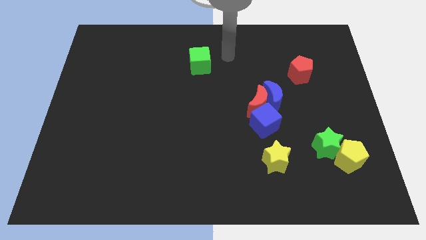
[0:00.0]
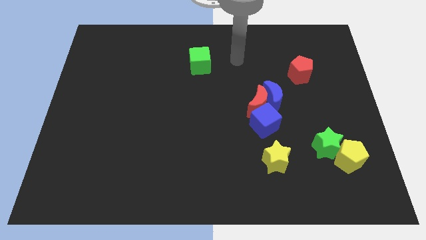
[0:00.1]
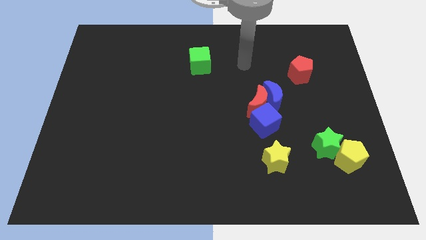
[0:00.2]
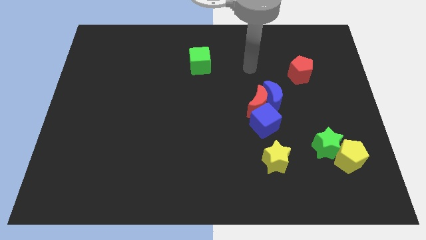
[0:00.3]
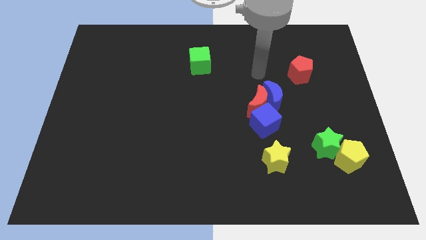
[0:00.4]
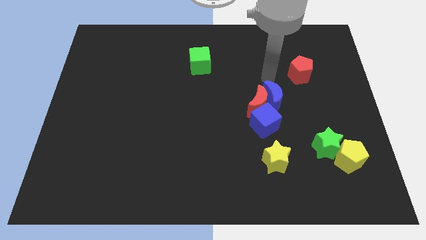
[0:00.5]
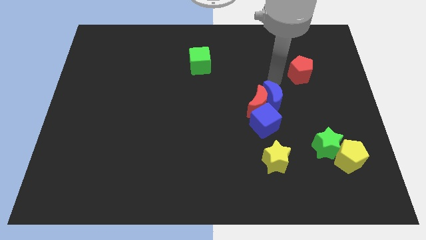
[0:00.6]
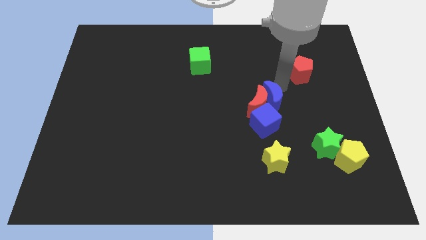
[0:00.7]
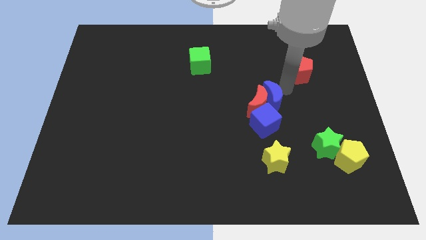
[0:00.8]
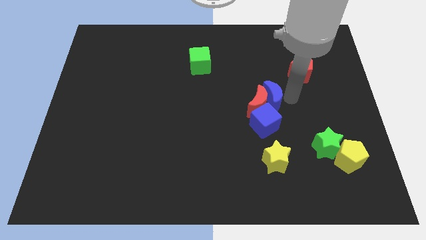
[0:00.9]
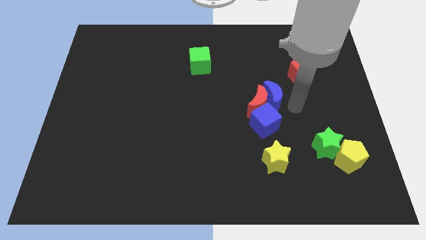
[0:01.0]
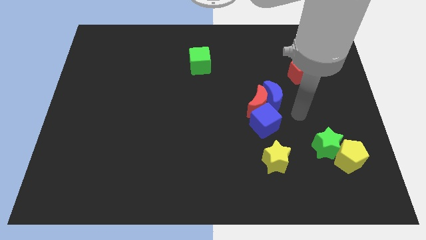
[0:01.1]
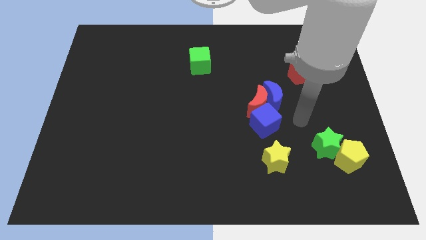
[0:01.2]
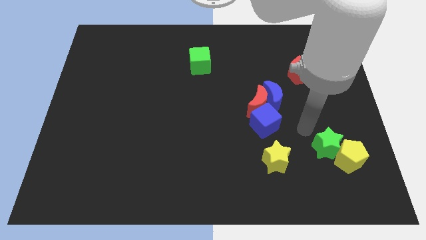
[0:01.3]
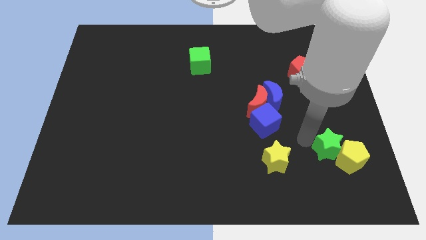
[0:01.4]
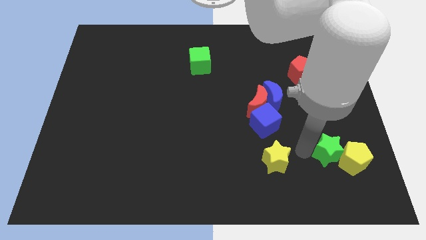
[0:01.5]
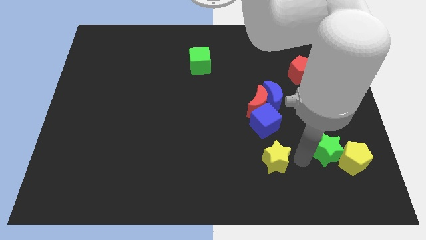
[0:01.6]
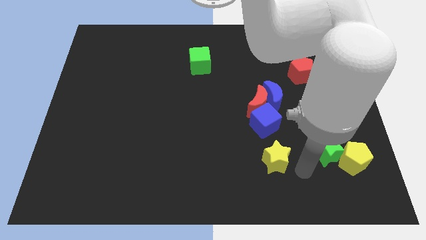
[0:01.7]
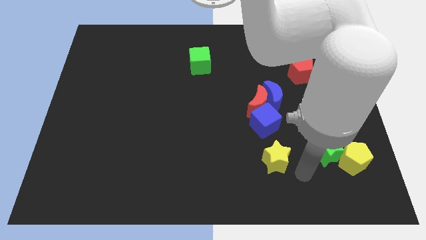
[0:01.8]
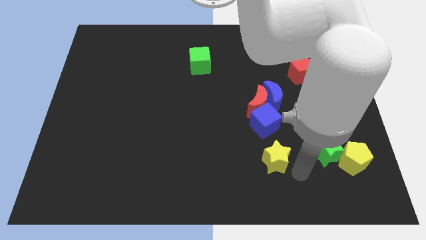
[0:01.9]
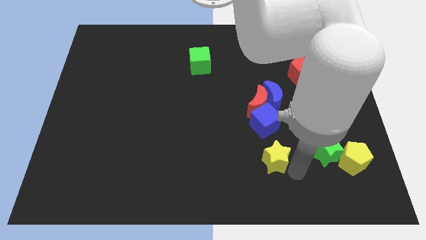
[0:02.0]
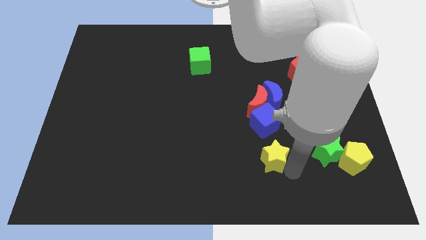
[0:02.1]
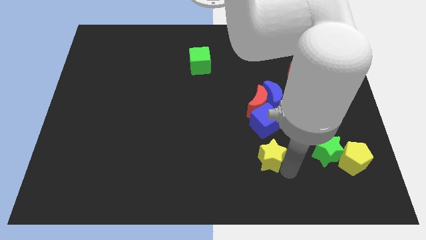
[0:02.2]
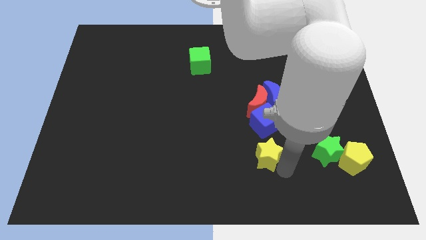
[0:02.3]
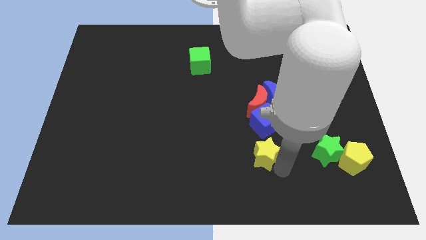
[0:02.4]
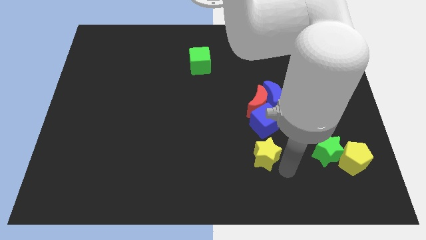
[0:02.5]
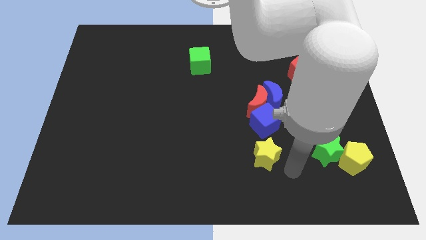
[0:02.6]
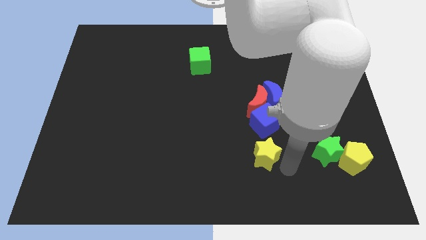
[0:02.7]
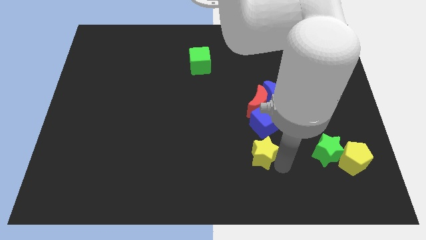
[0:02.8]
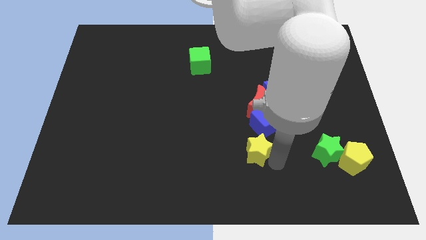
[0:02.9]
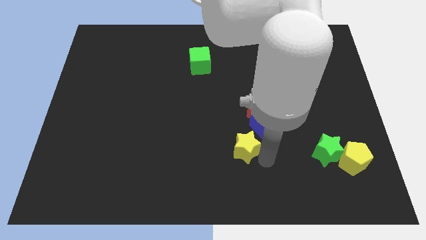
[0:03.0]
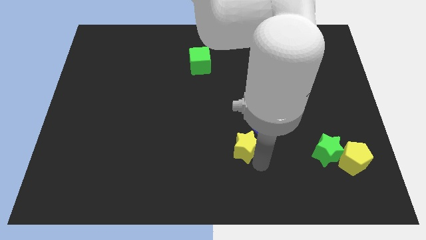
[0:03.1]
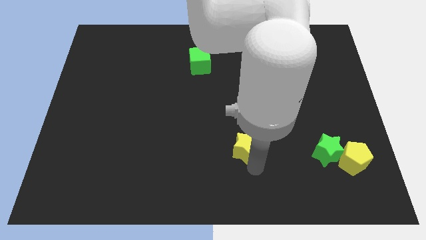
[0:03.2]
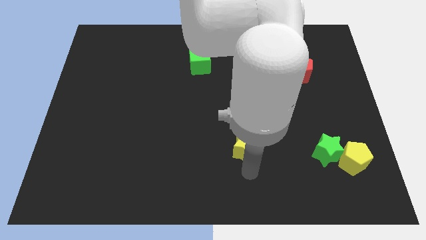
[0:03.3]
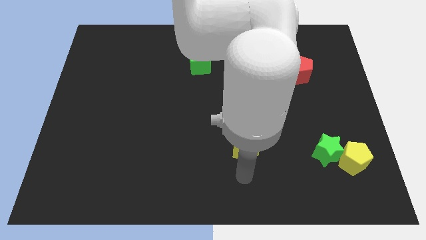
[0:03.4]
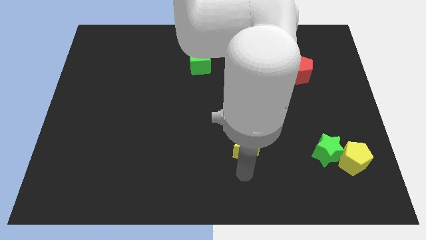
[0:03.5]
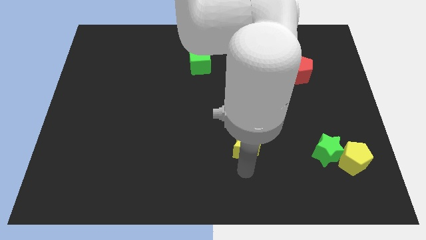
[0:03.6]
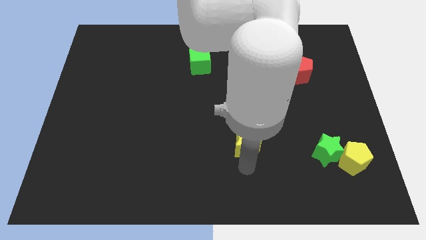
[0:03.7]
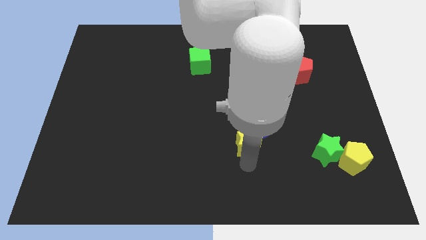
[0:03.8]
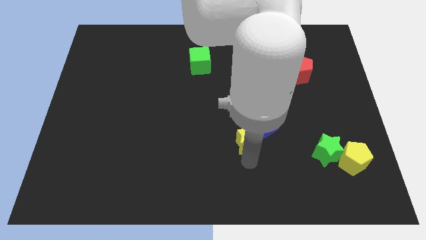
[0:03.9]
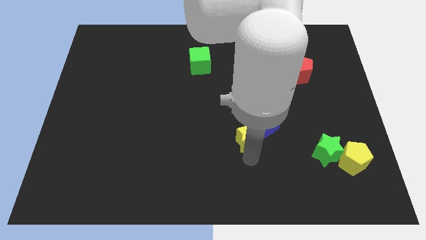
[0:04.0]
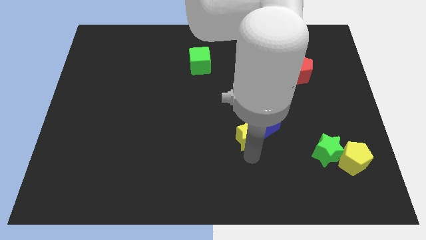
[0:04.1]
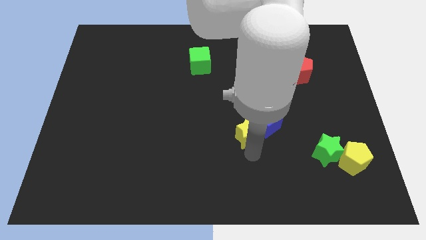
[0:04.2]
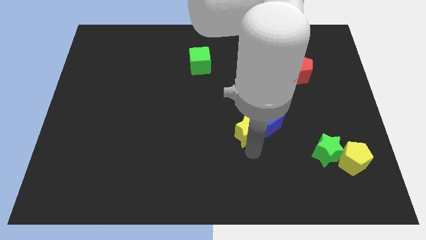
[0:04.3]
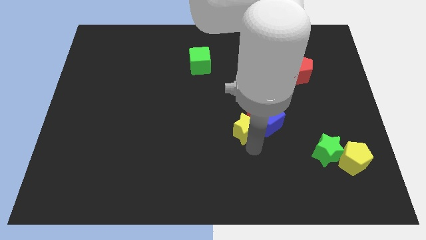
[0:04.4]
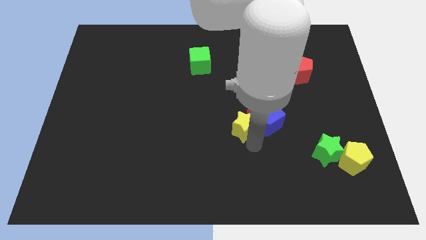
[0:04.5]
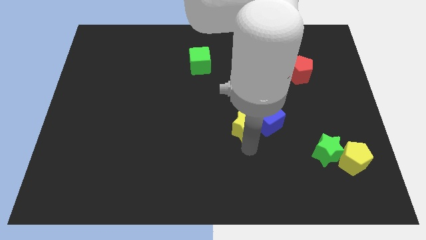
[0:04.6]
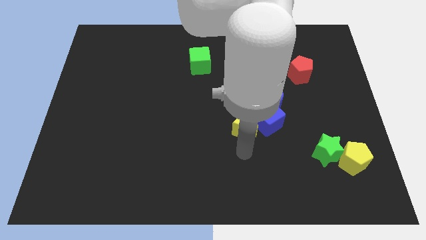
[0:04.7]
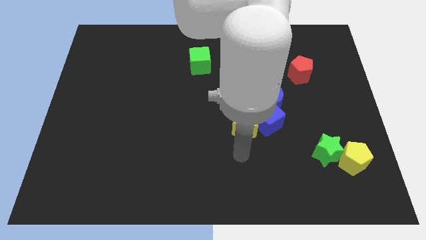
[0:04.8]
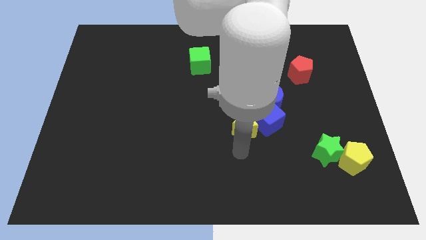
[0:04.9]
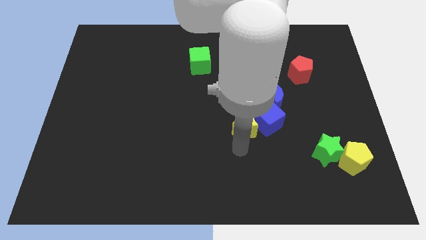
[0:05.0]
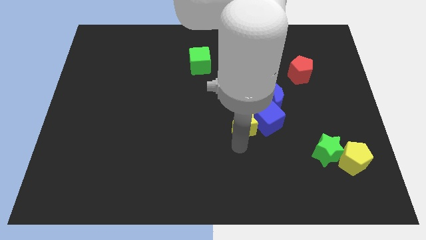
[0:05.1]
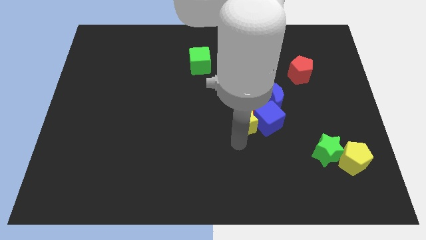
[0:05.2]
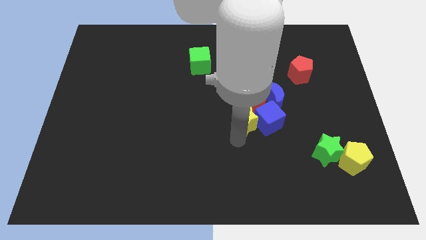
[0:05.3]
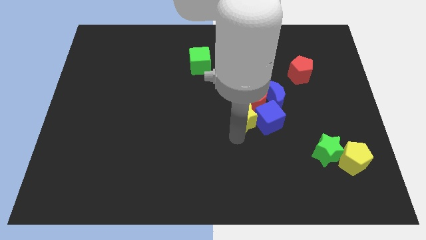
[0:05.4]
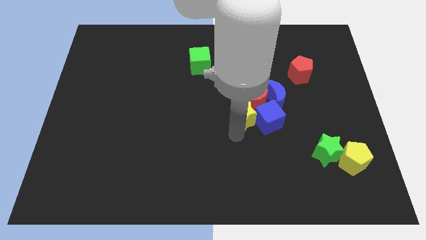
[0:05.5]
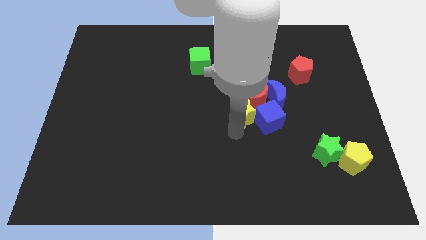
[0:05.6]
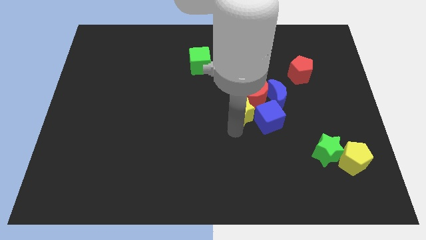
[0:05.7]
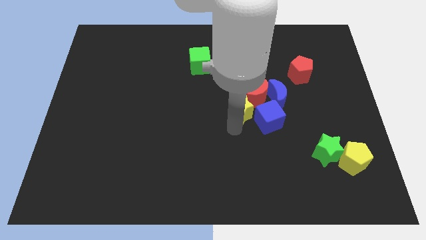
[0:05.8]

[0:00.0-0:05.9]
move the yellow star to the red moon
